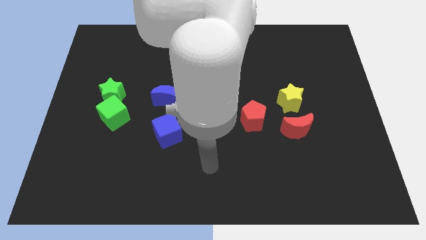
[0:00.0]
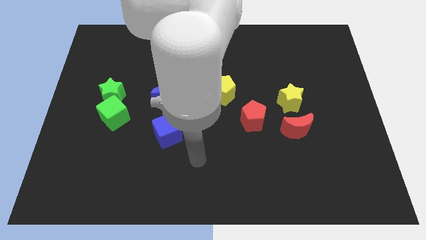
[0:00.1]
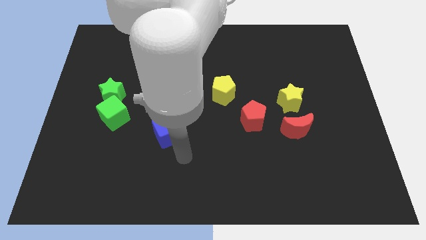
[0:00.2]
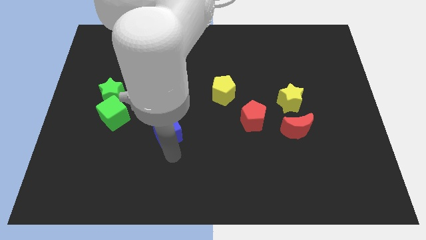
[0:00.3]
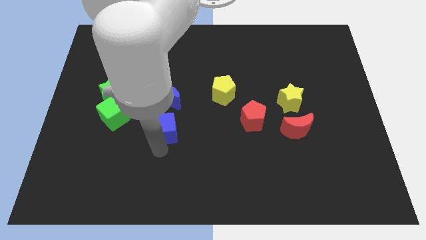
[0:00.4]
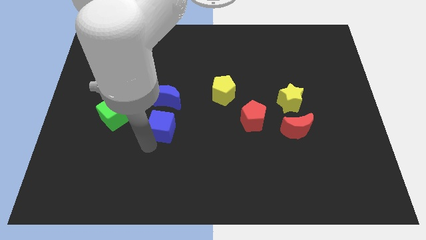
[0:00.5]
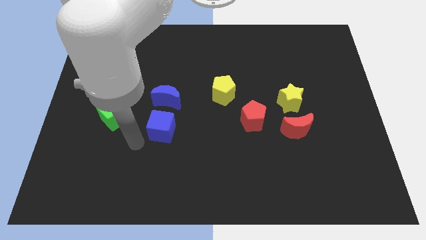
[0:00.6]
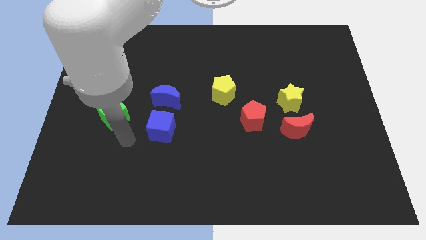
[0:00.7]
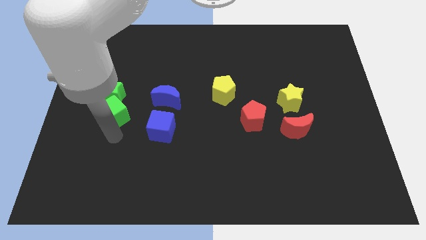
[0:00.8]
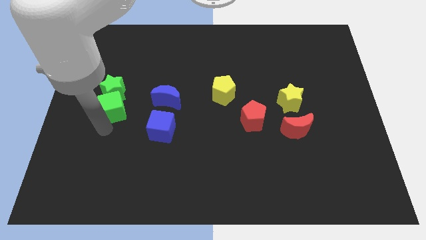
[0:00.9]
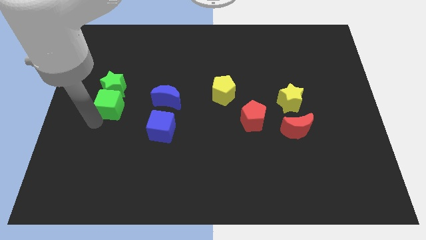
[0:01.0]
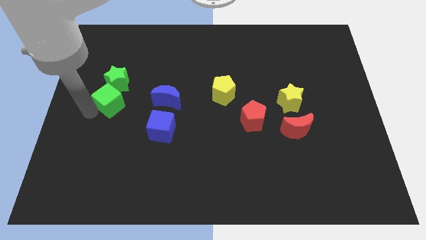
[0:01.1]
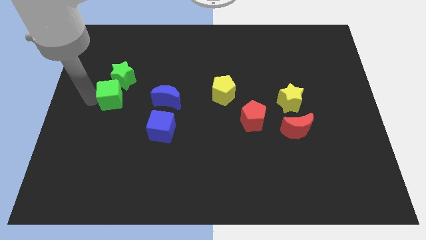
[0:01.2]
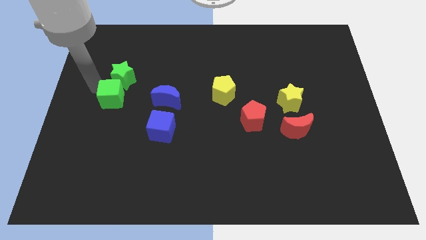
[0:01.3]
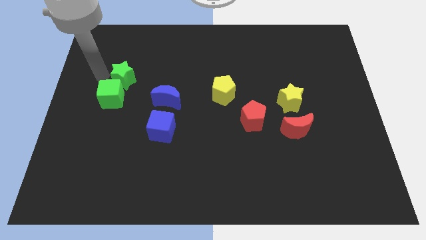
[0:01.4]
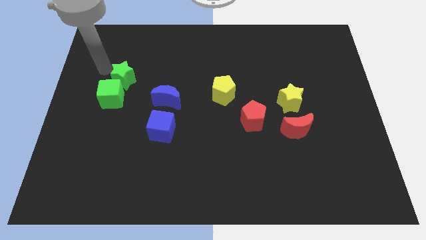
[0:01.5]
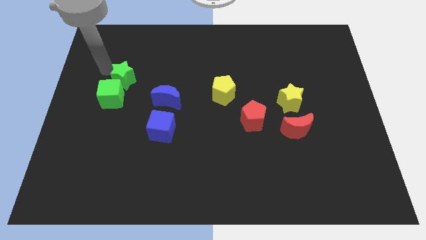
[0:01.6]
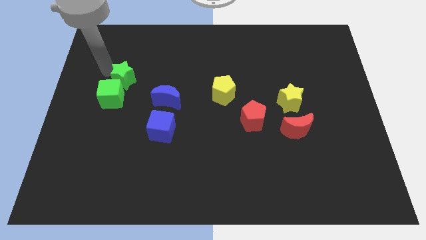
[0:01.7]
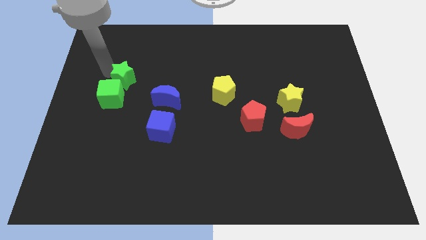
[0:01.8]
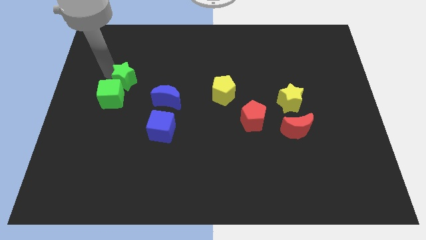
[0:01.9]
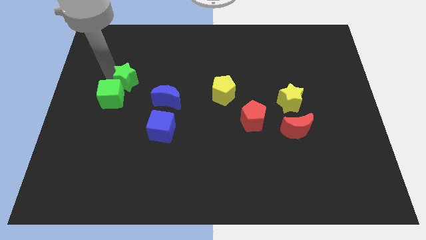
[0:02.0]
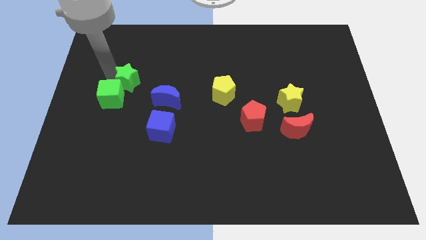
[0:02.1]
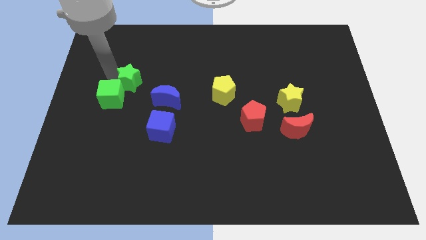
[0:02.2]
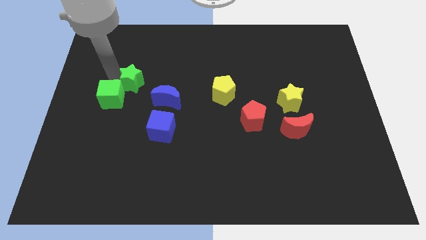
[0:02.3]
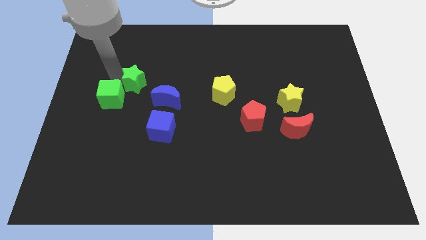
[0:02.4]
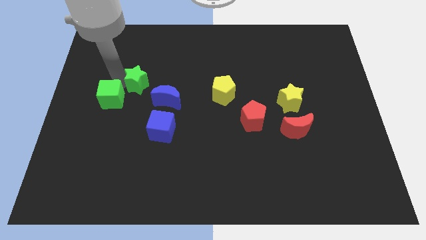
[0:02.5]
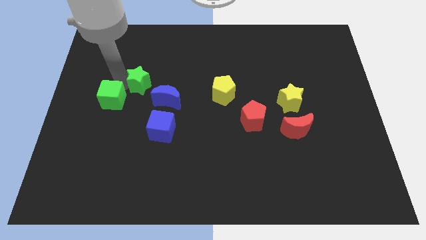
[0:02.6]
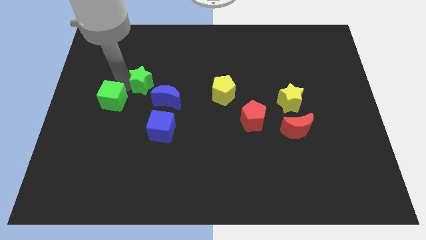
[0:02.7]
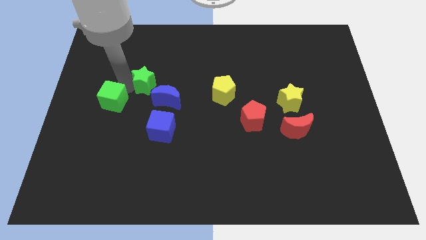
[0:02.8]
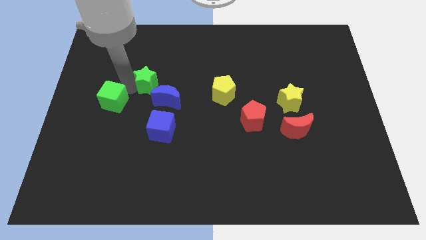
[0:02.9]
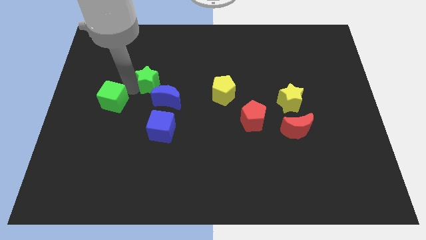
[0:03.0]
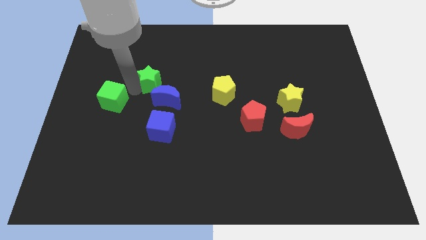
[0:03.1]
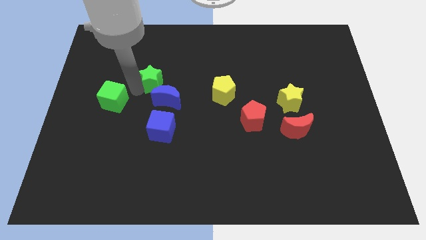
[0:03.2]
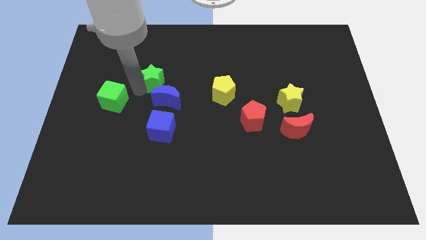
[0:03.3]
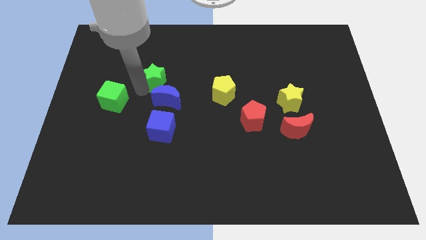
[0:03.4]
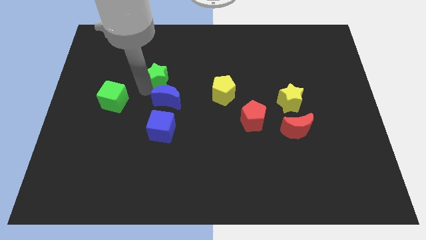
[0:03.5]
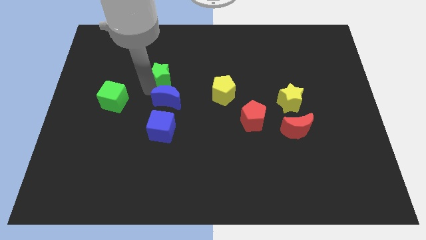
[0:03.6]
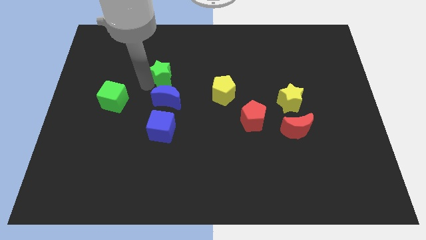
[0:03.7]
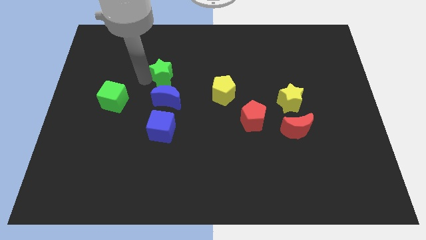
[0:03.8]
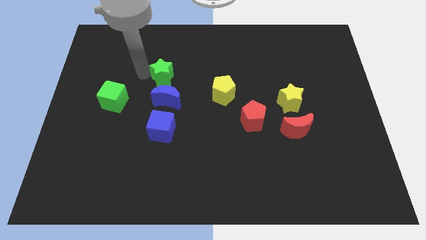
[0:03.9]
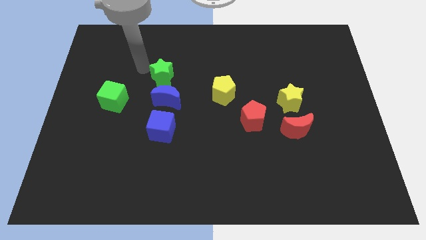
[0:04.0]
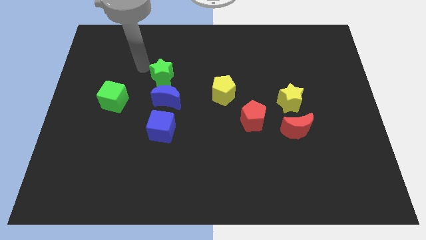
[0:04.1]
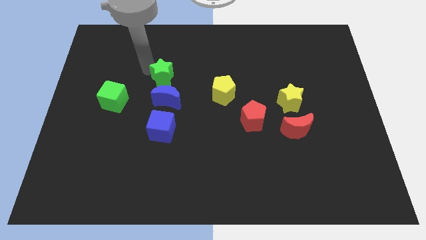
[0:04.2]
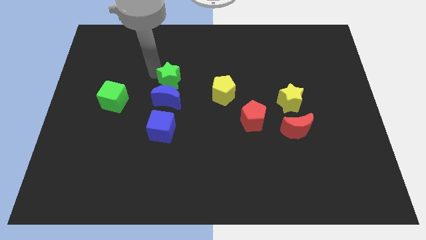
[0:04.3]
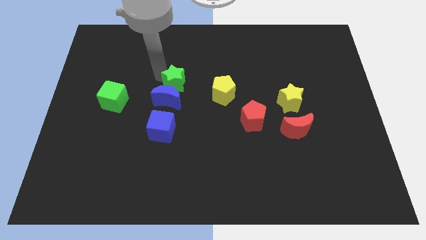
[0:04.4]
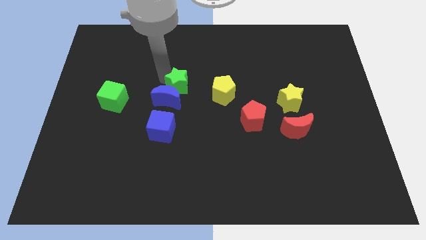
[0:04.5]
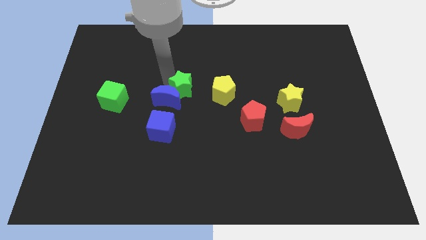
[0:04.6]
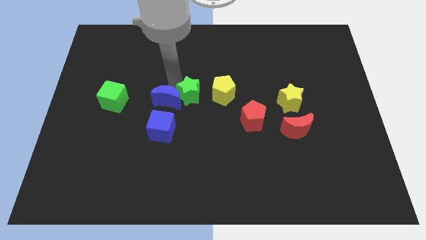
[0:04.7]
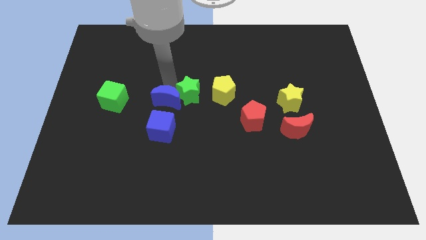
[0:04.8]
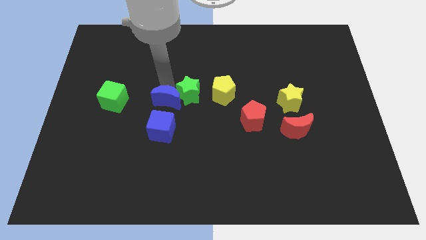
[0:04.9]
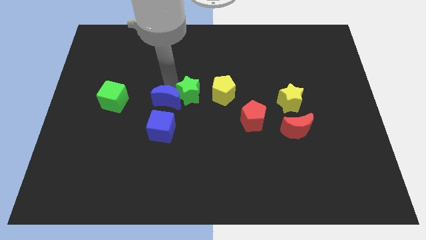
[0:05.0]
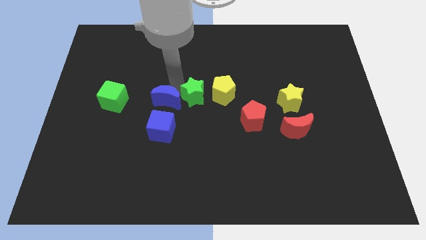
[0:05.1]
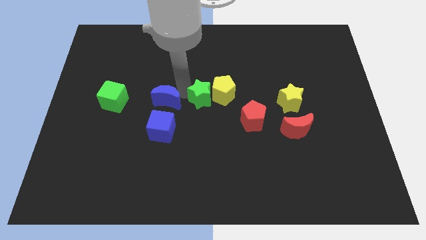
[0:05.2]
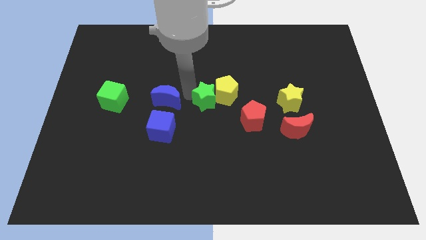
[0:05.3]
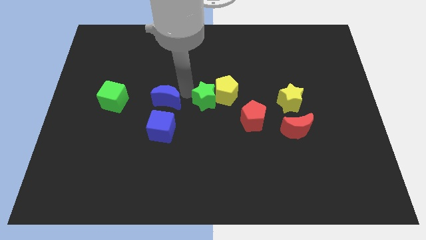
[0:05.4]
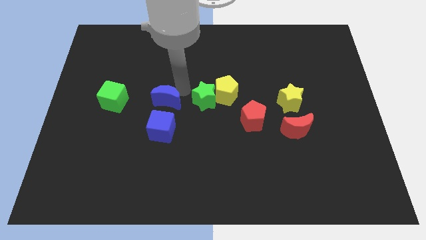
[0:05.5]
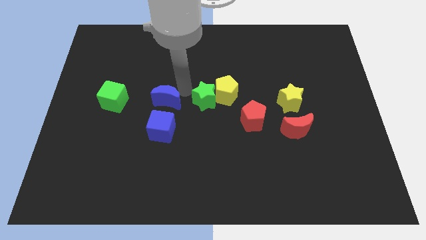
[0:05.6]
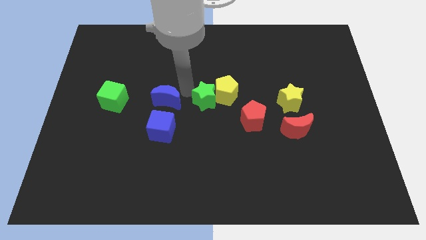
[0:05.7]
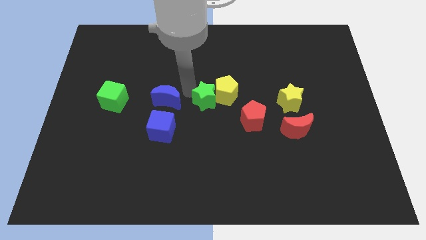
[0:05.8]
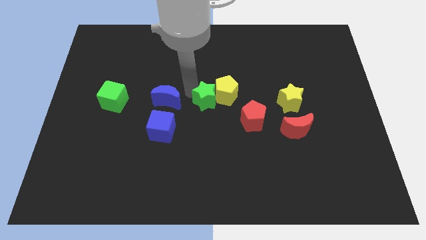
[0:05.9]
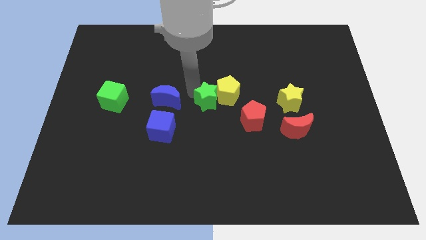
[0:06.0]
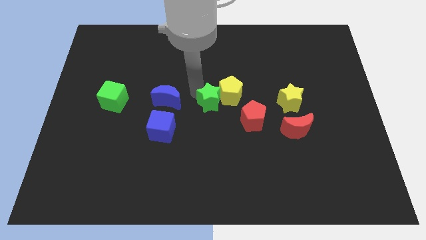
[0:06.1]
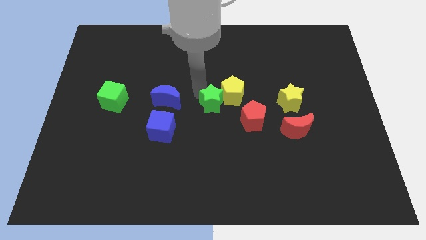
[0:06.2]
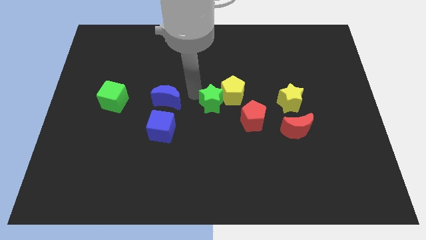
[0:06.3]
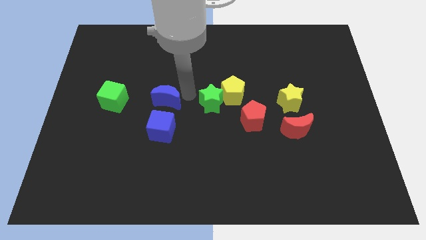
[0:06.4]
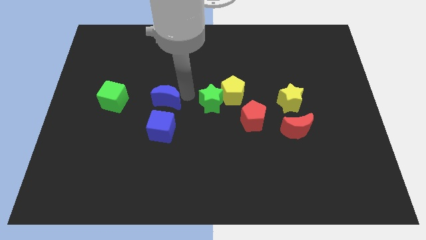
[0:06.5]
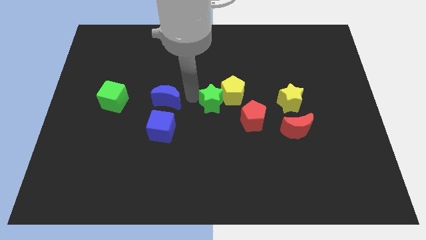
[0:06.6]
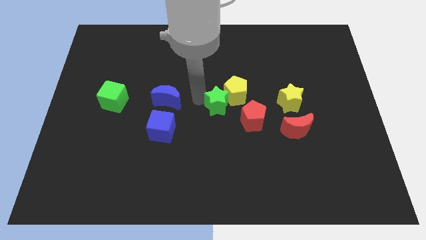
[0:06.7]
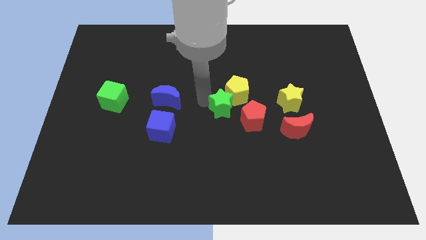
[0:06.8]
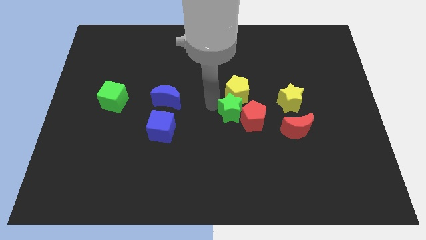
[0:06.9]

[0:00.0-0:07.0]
put the green star to the red pentagon
